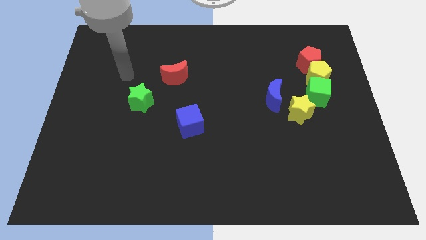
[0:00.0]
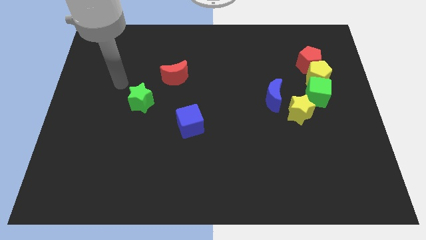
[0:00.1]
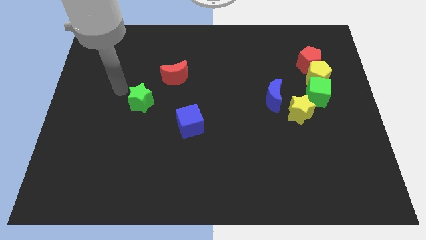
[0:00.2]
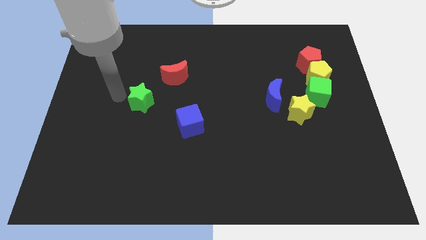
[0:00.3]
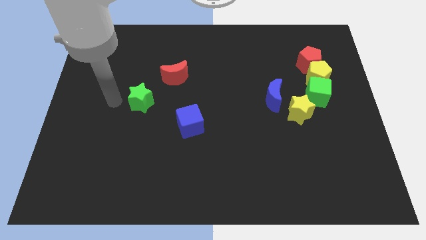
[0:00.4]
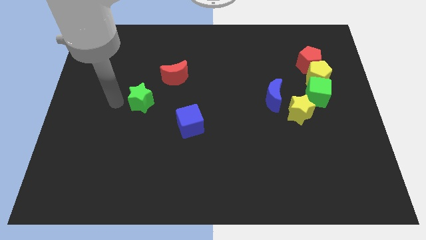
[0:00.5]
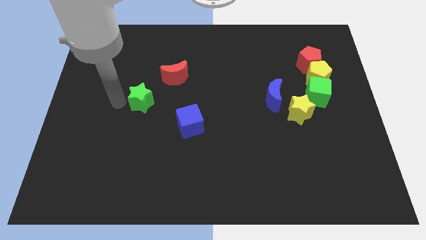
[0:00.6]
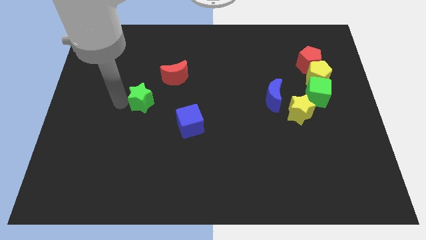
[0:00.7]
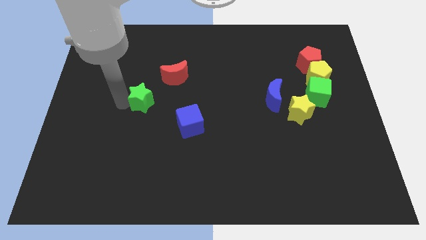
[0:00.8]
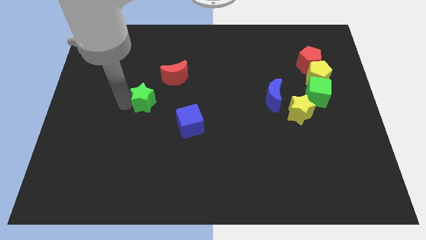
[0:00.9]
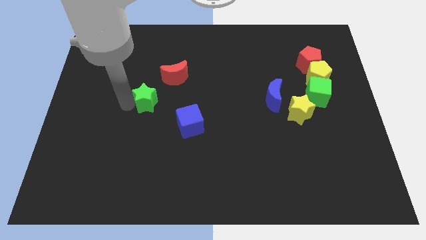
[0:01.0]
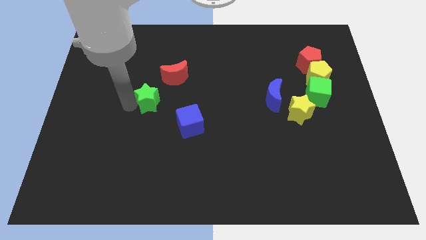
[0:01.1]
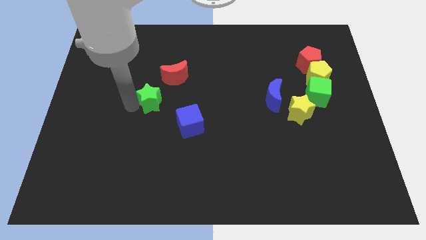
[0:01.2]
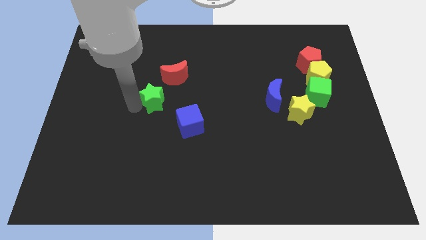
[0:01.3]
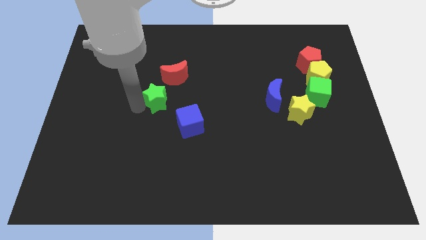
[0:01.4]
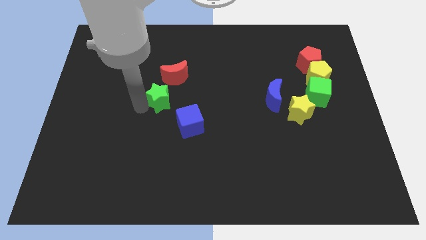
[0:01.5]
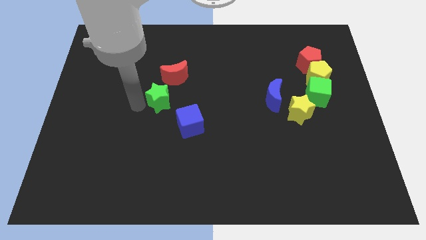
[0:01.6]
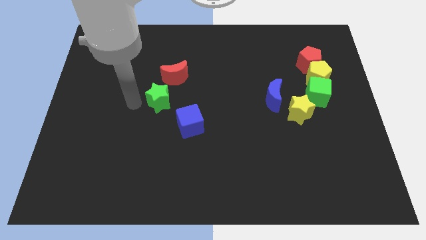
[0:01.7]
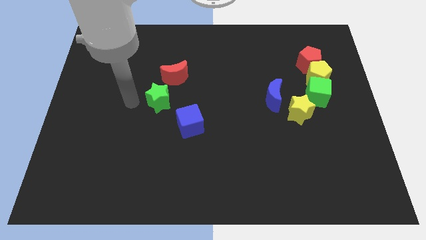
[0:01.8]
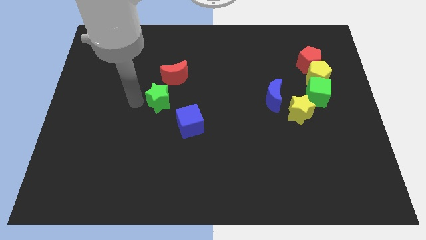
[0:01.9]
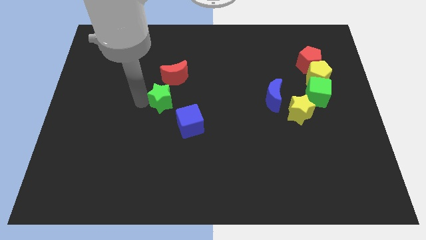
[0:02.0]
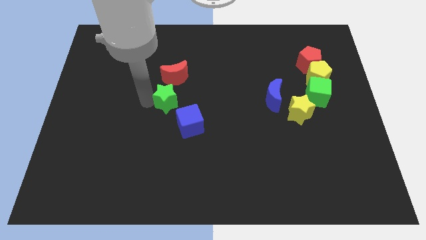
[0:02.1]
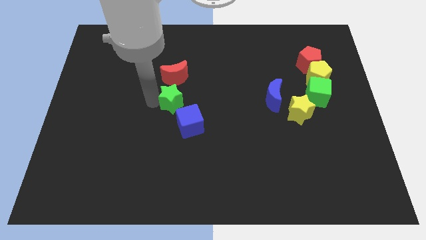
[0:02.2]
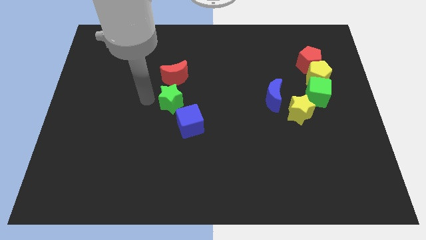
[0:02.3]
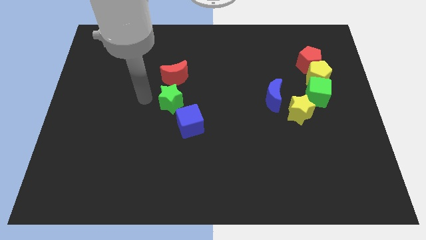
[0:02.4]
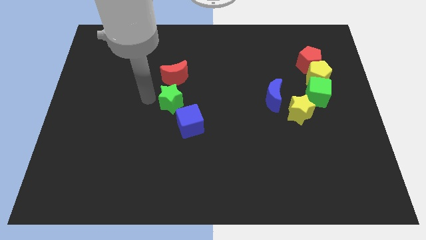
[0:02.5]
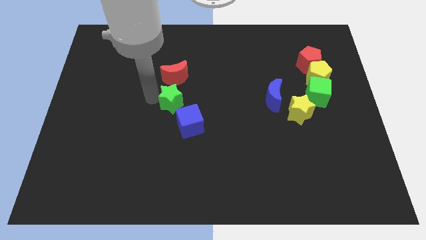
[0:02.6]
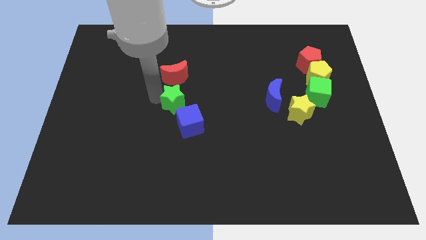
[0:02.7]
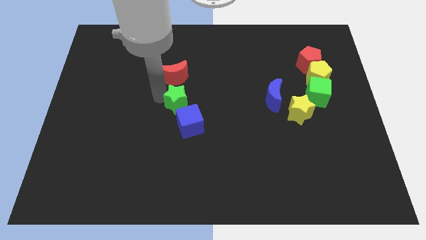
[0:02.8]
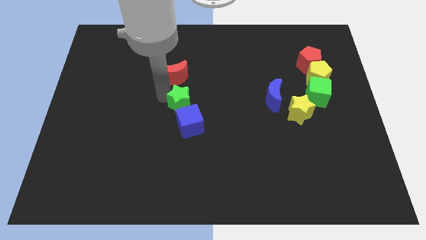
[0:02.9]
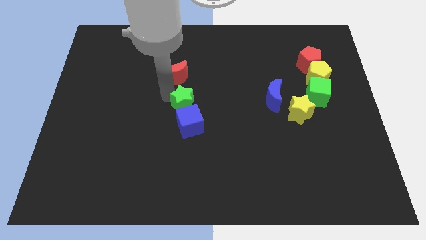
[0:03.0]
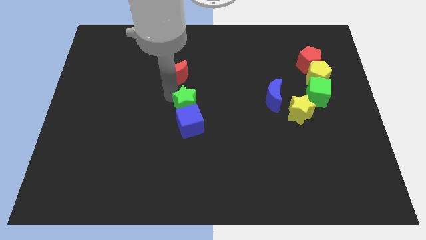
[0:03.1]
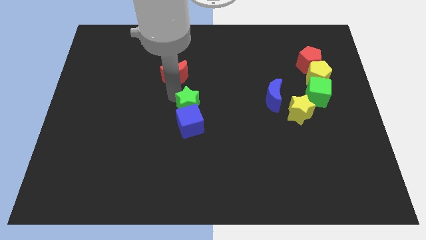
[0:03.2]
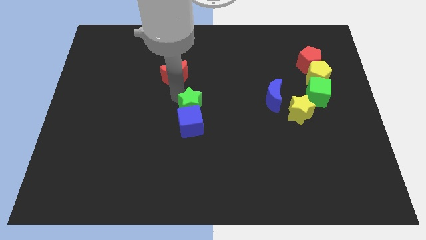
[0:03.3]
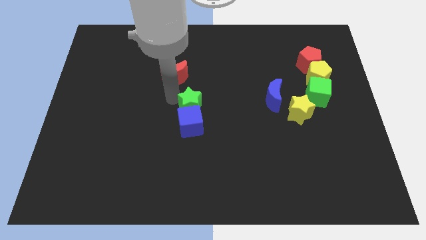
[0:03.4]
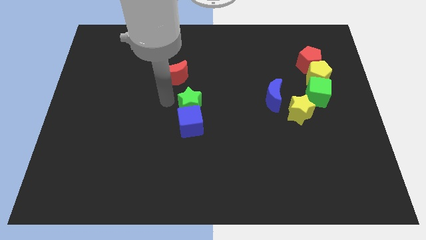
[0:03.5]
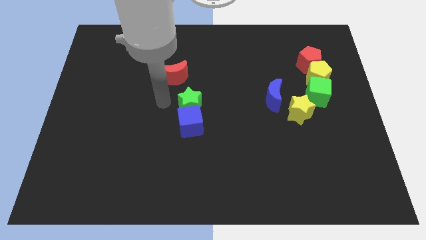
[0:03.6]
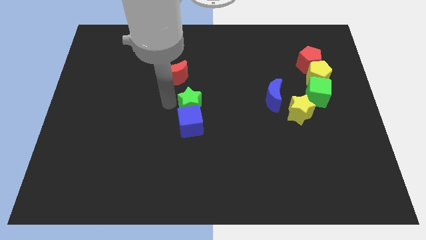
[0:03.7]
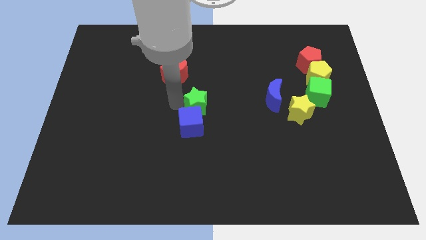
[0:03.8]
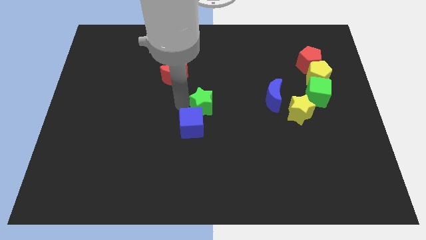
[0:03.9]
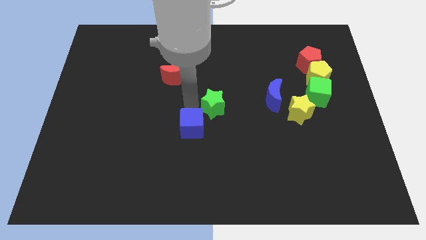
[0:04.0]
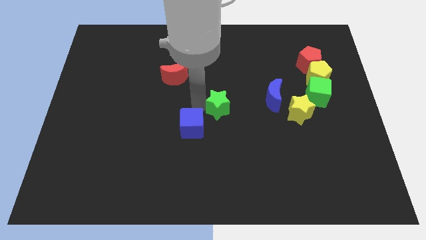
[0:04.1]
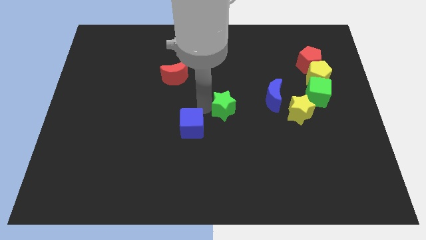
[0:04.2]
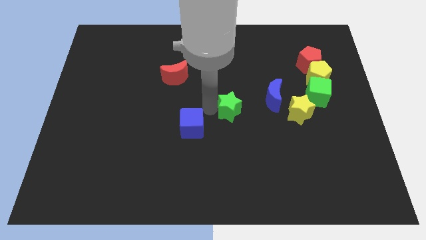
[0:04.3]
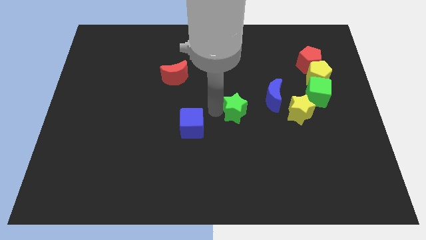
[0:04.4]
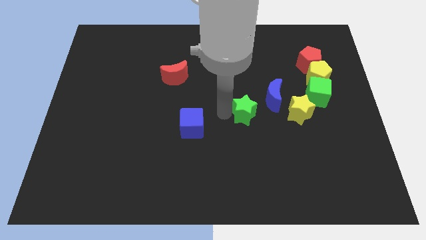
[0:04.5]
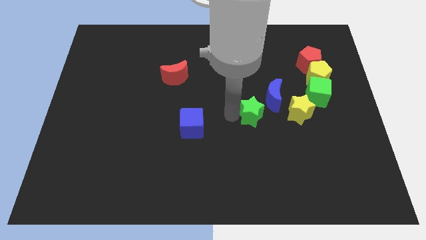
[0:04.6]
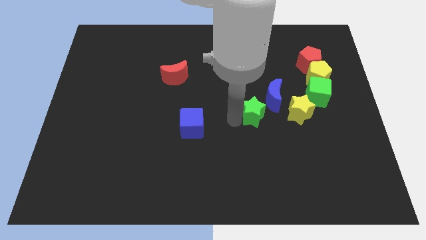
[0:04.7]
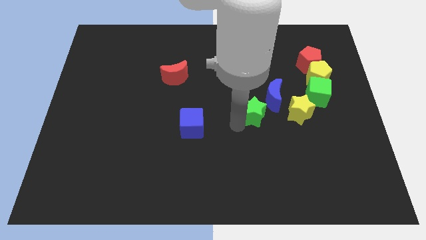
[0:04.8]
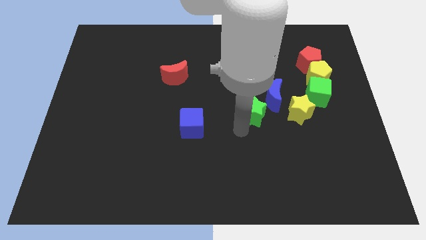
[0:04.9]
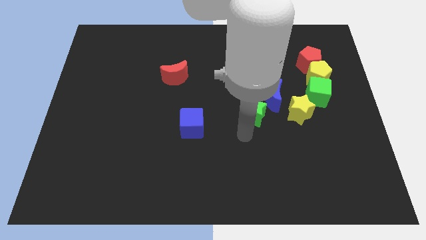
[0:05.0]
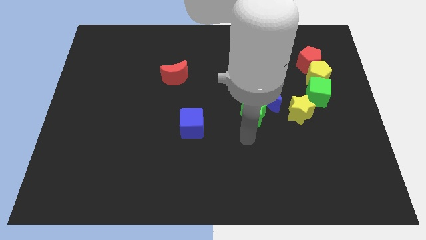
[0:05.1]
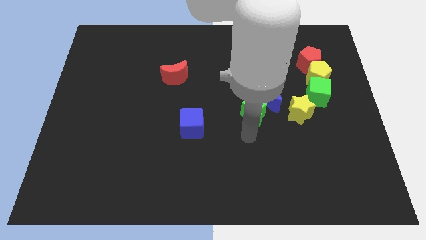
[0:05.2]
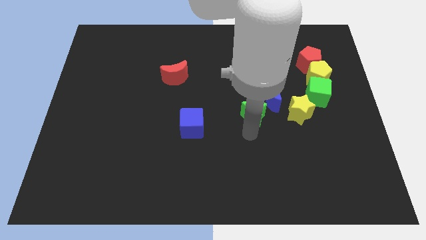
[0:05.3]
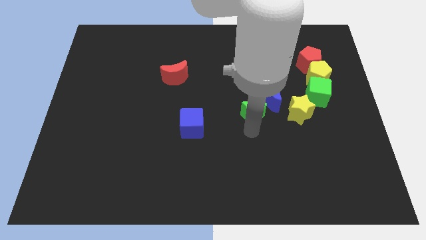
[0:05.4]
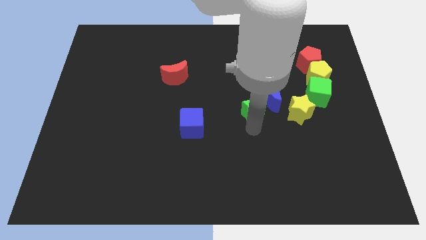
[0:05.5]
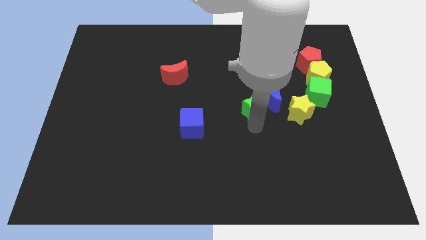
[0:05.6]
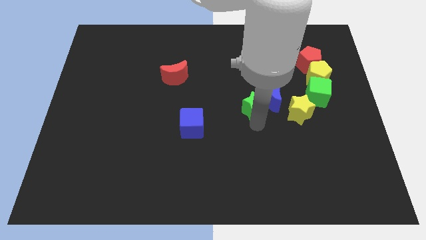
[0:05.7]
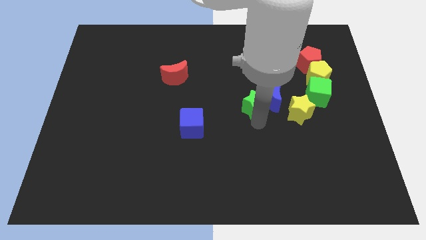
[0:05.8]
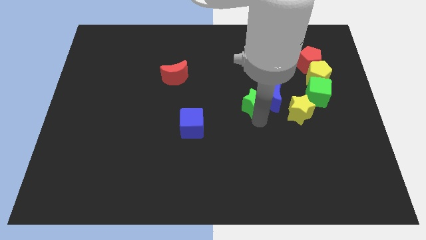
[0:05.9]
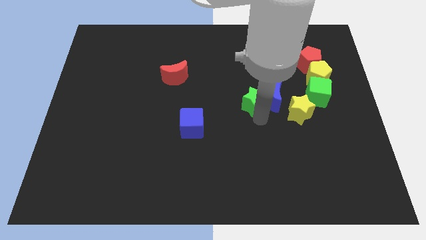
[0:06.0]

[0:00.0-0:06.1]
put the green star left of the green cube
